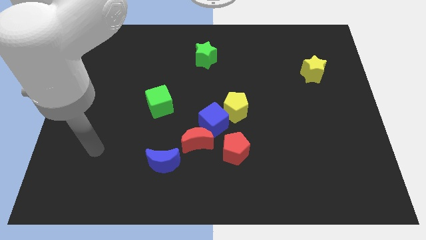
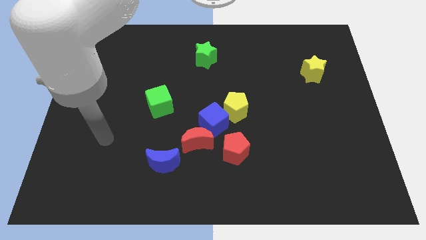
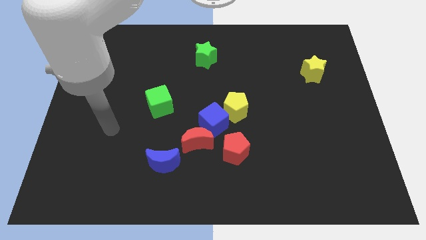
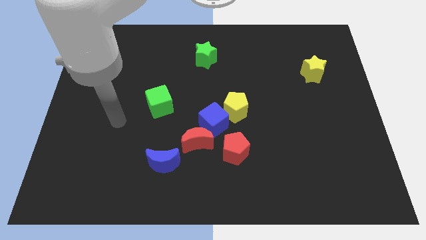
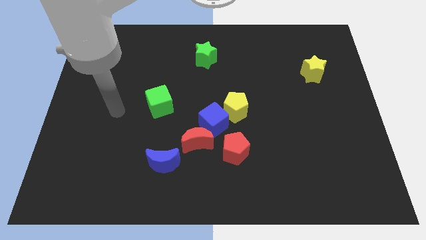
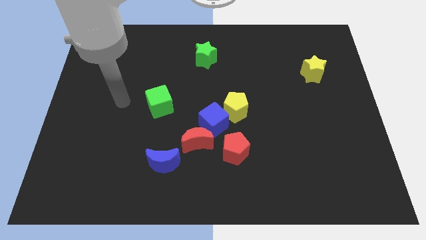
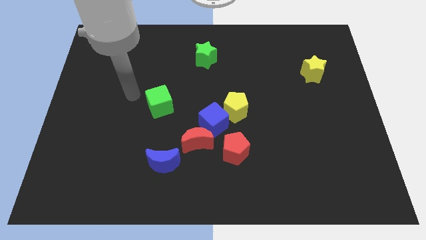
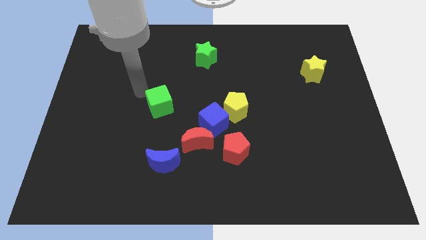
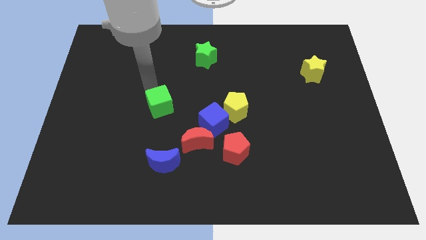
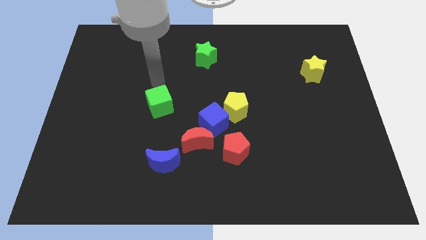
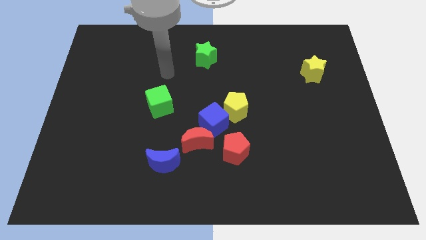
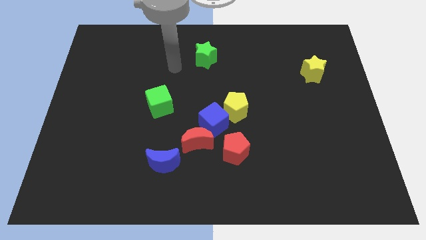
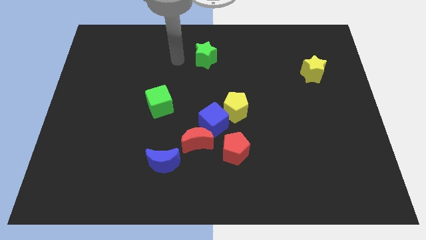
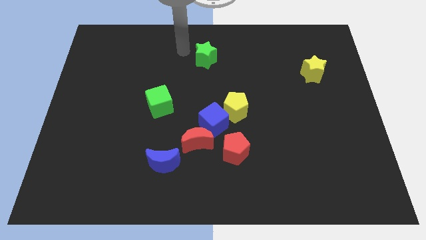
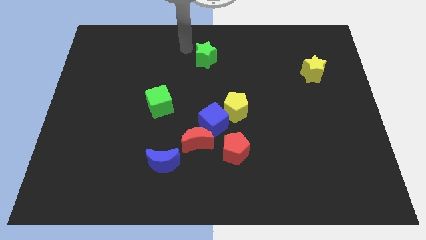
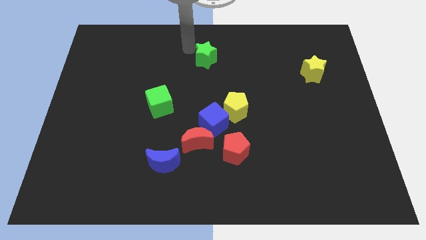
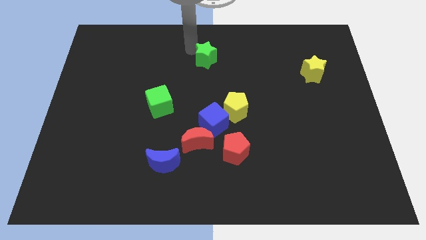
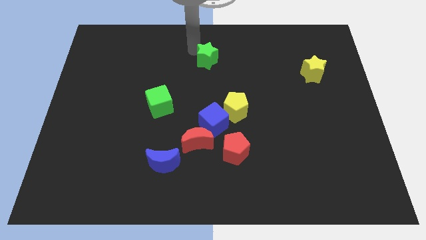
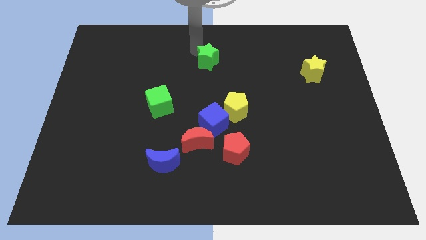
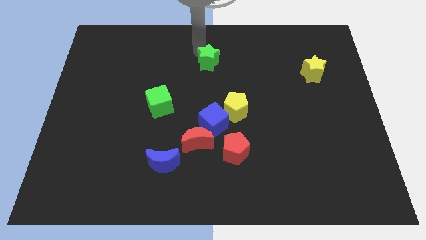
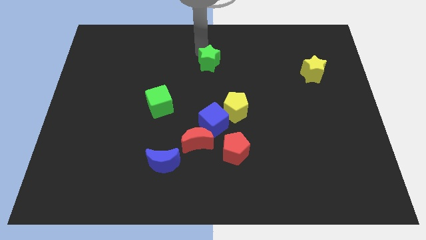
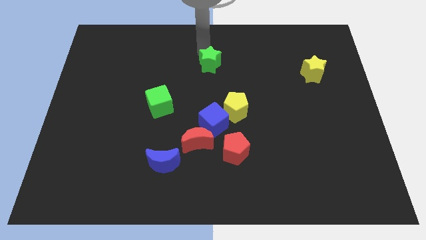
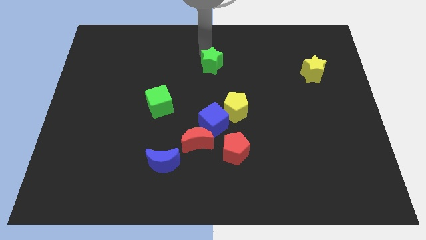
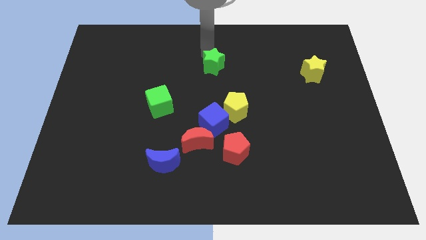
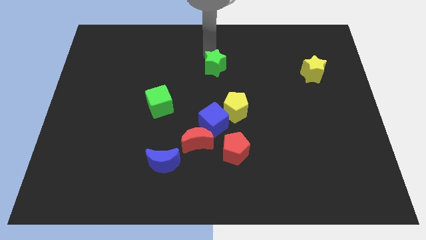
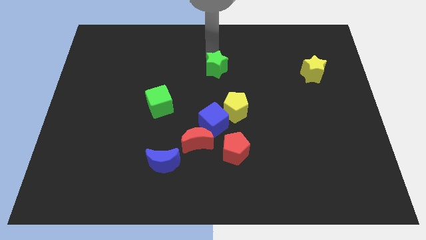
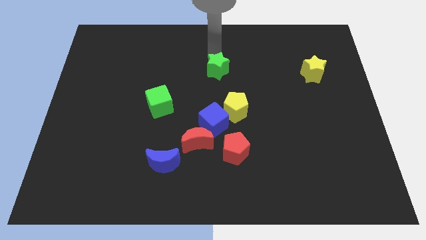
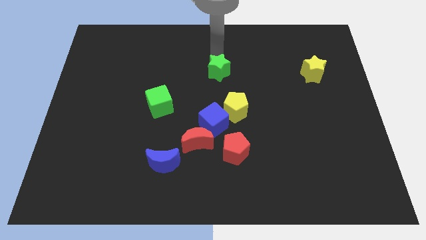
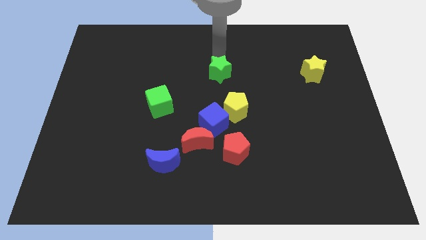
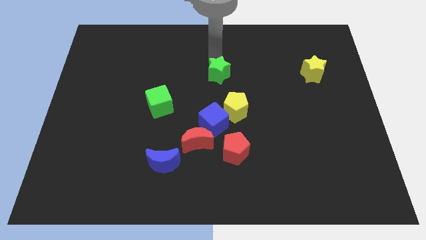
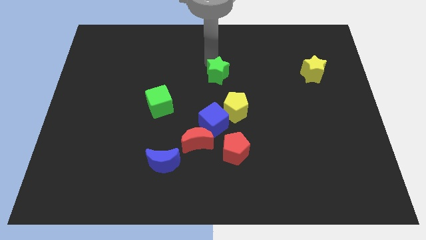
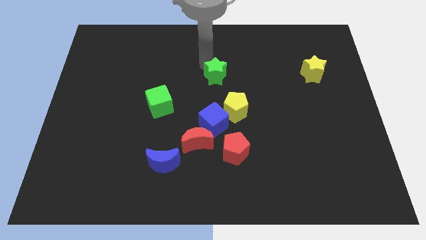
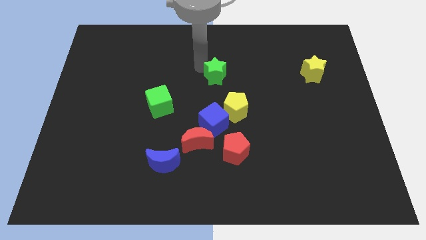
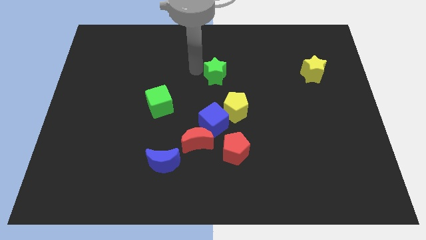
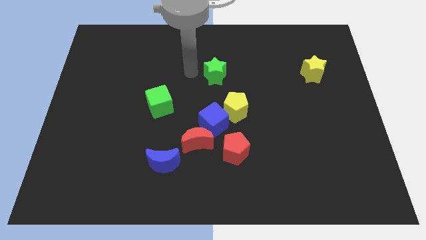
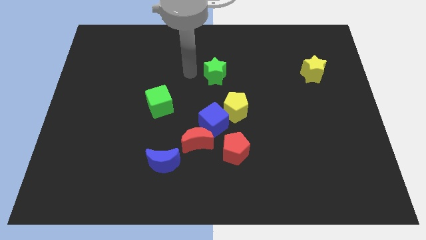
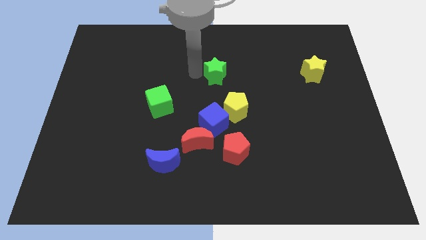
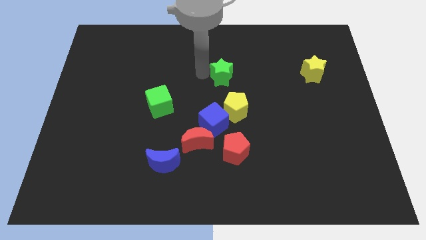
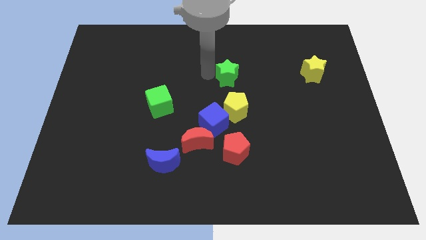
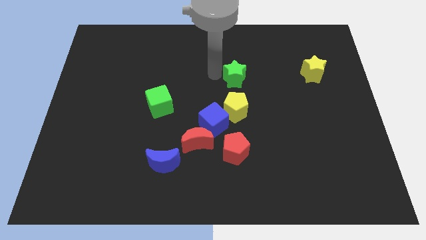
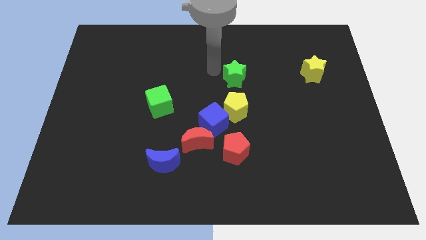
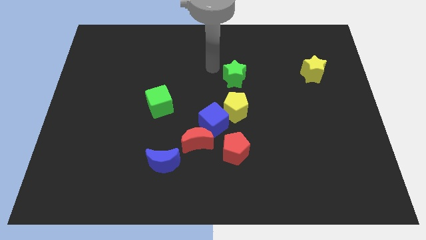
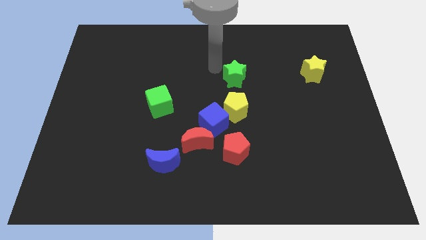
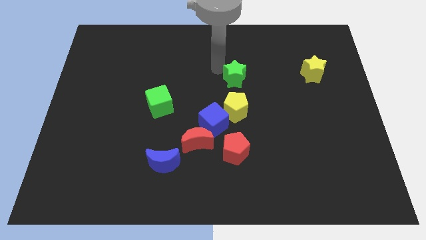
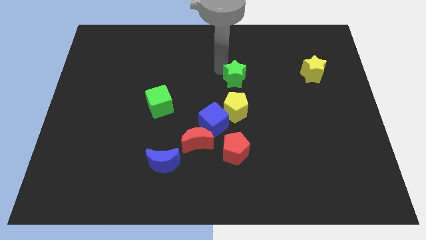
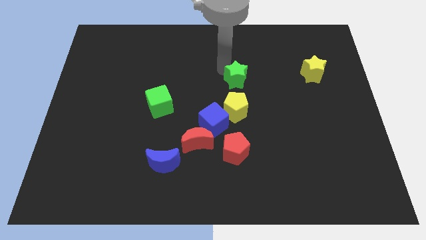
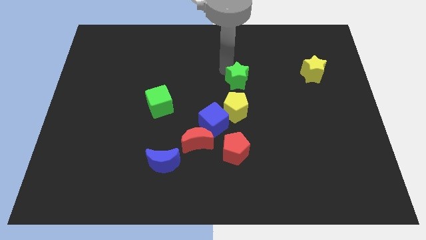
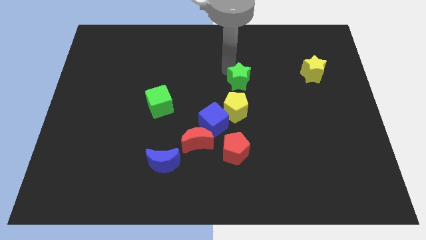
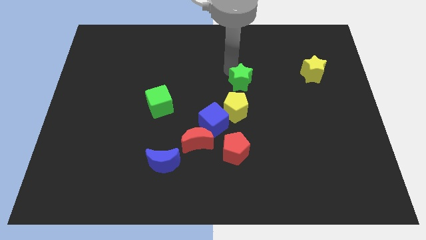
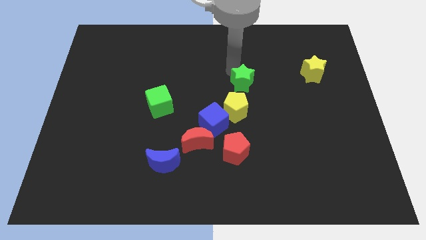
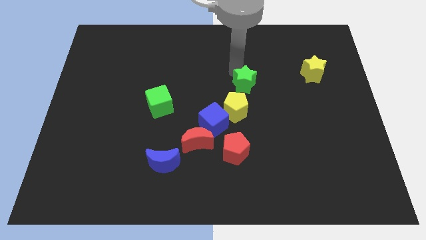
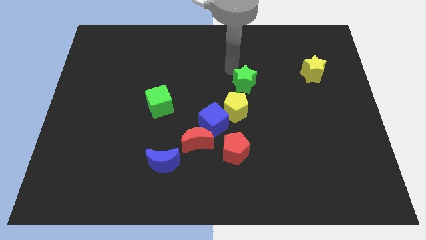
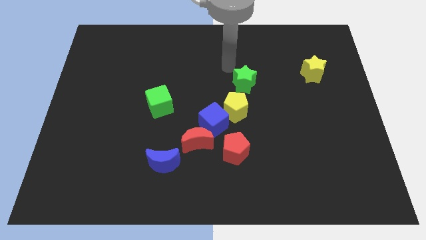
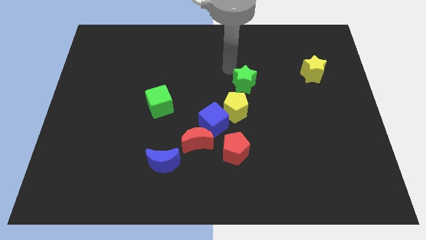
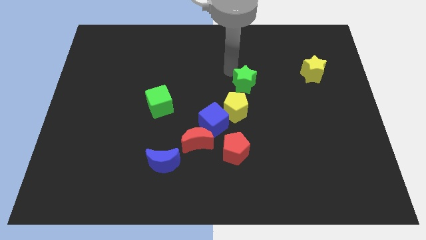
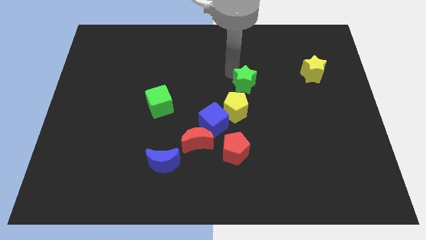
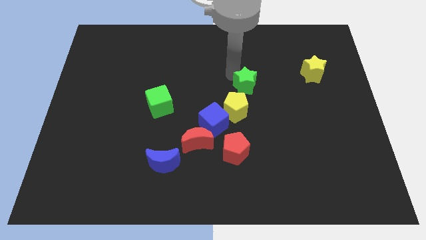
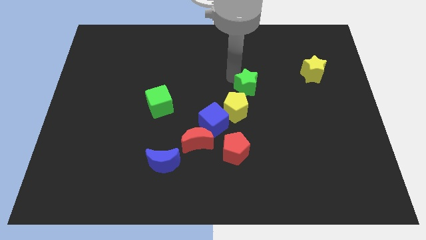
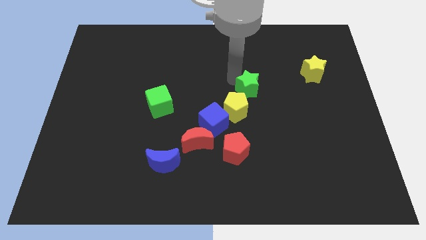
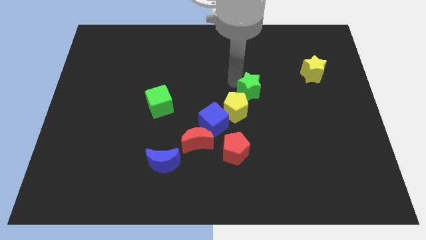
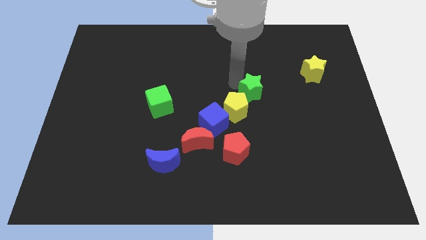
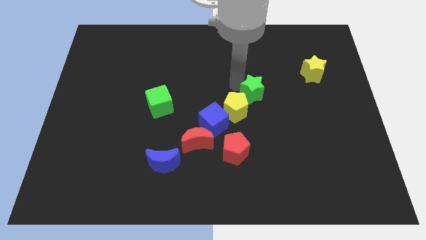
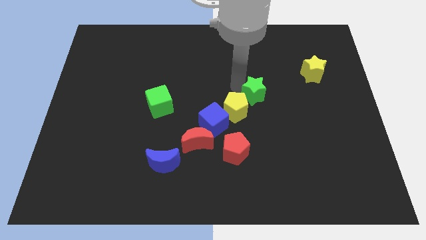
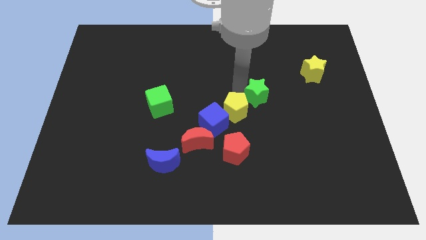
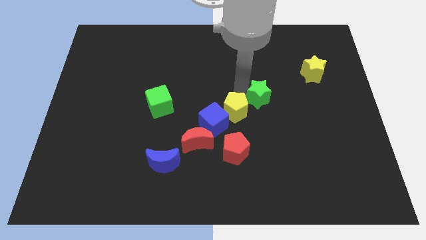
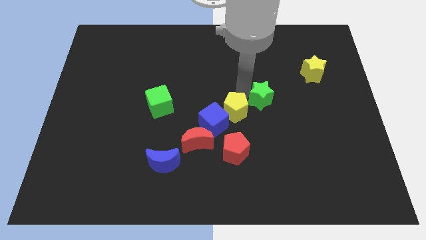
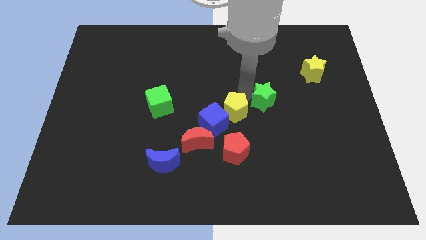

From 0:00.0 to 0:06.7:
push the green star diagonally down and right

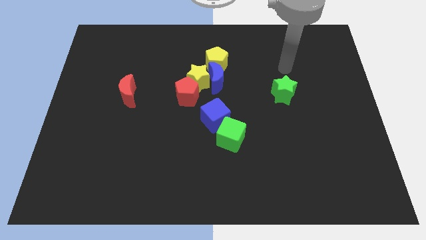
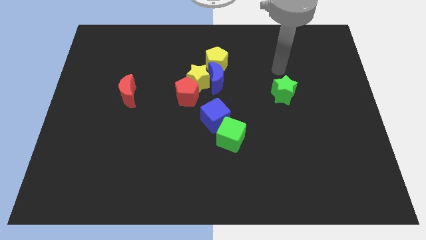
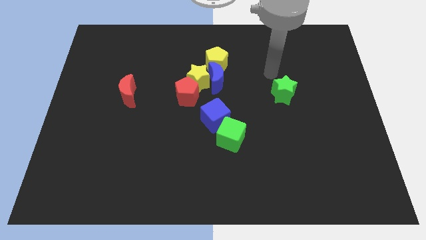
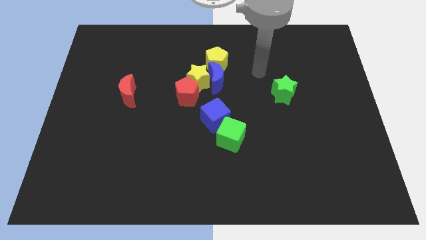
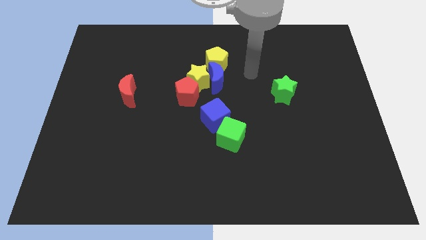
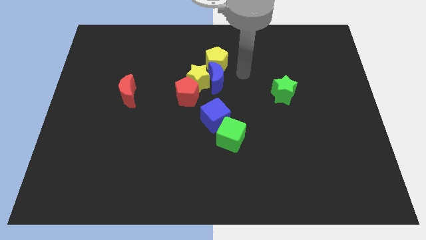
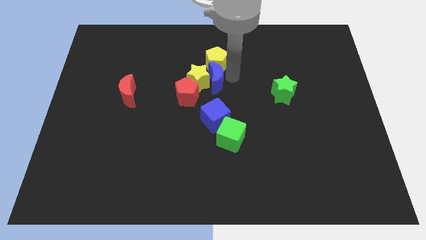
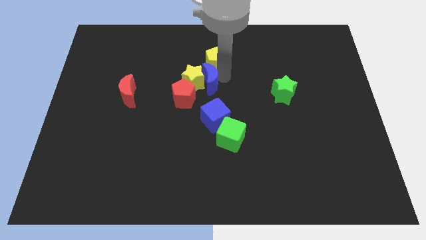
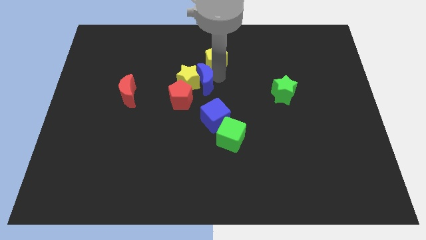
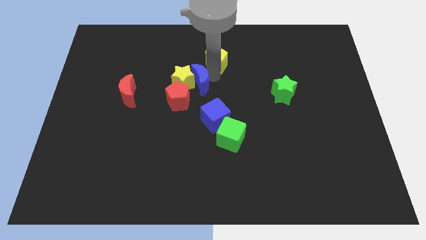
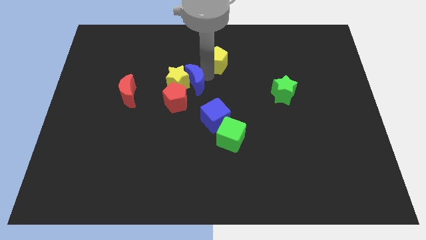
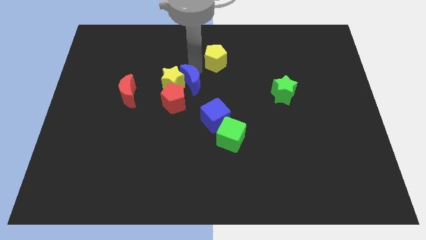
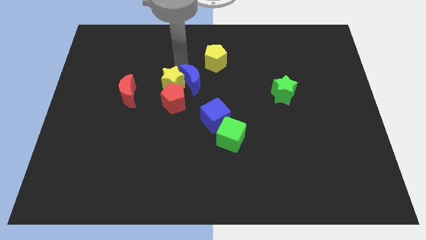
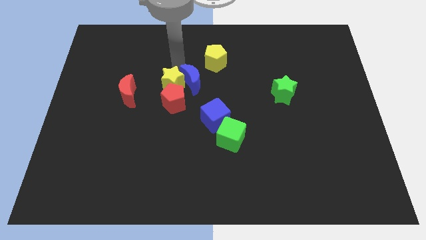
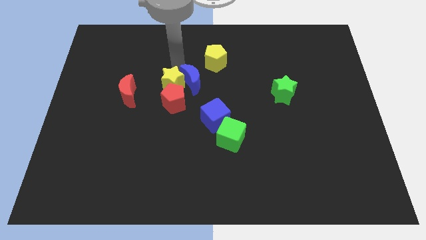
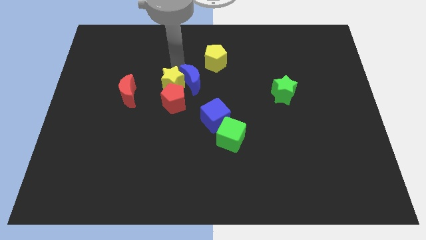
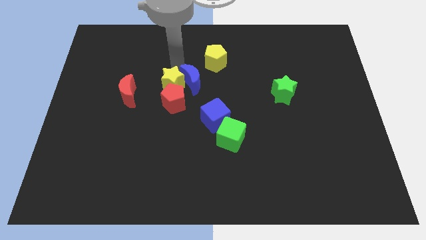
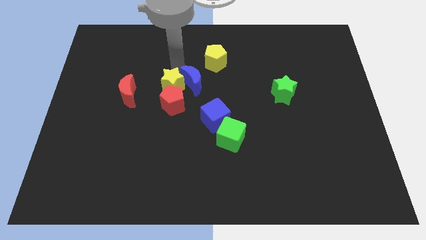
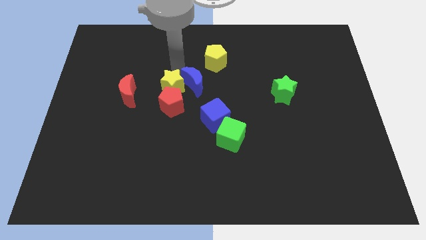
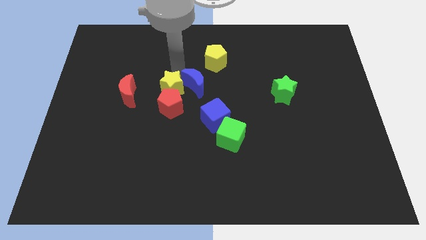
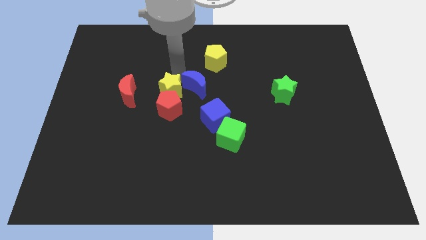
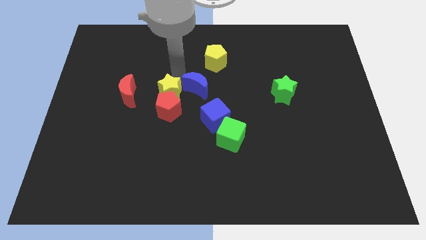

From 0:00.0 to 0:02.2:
push the yellow star down and then left a bit
